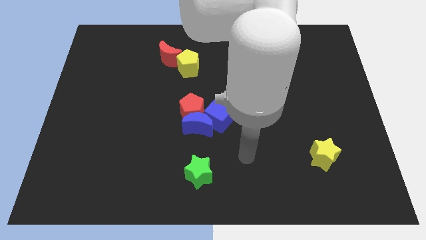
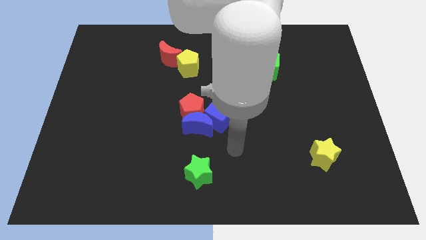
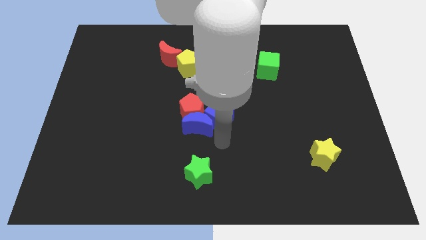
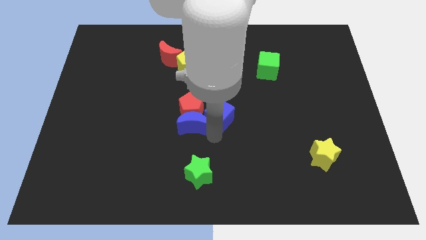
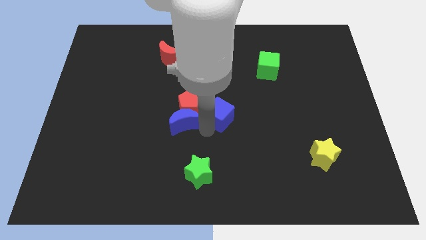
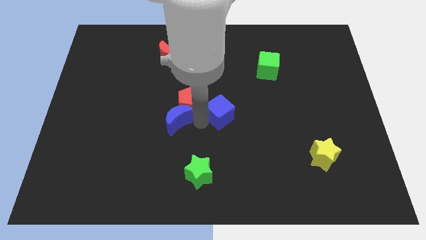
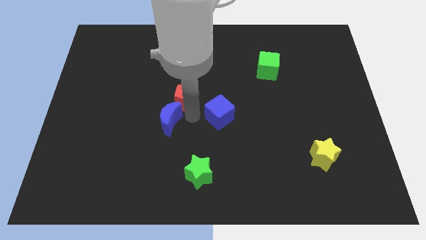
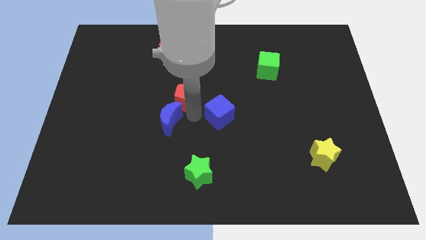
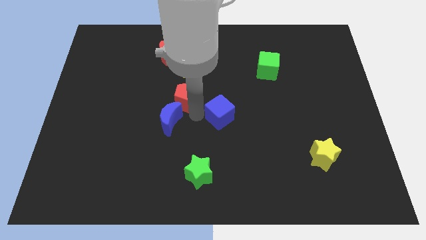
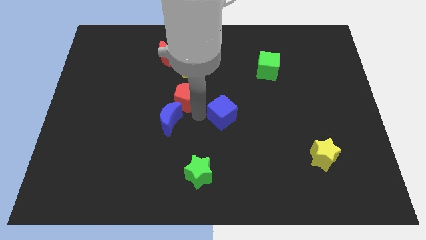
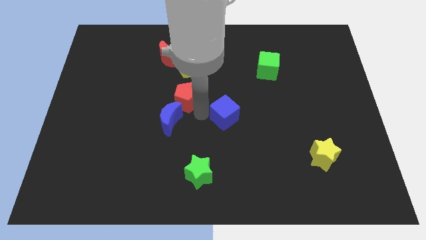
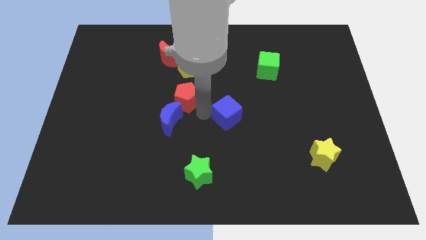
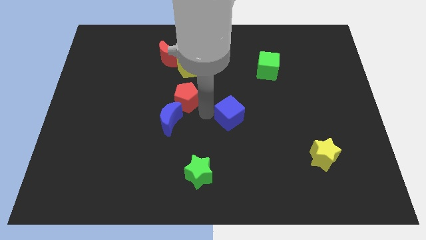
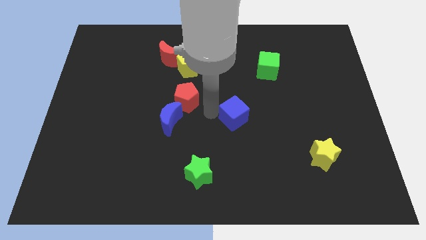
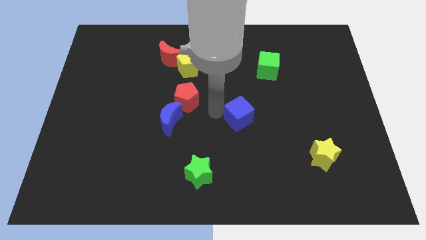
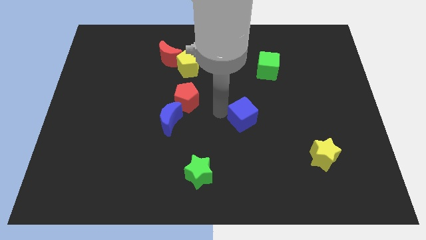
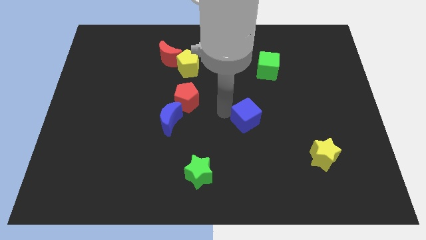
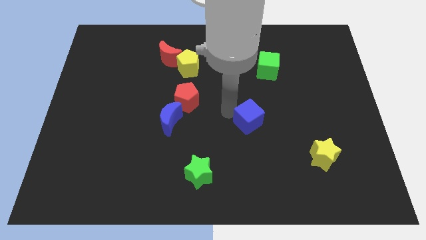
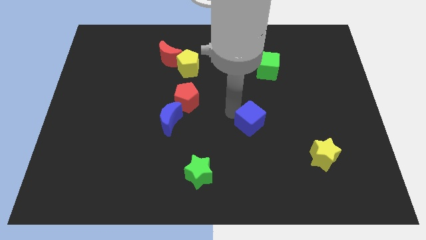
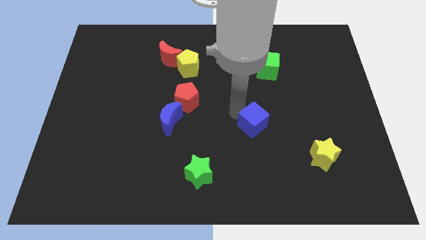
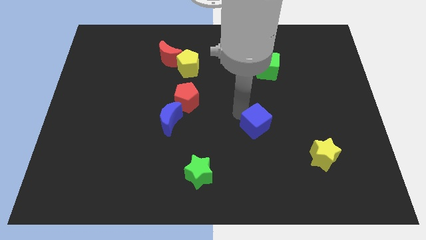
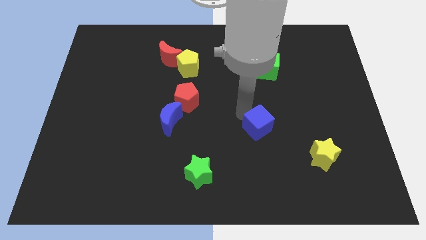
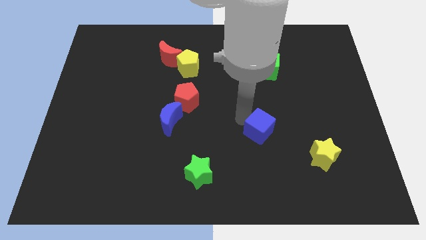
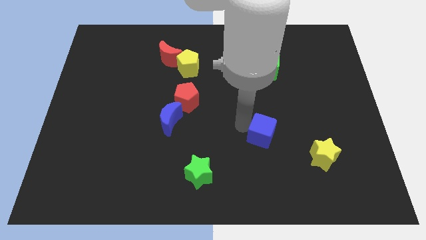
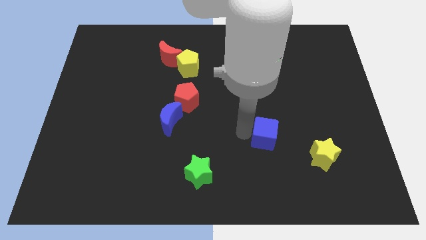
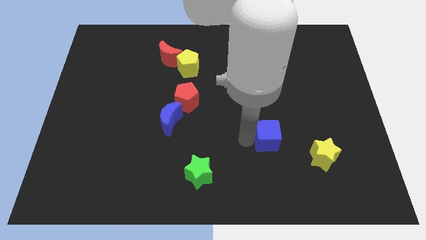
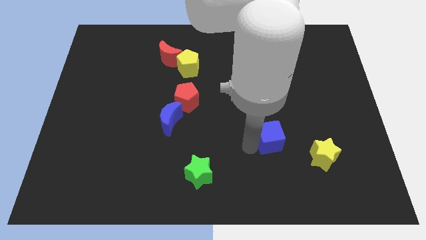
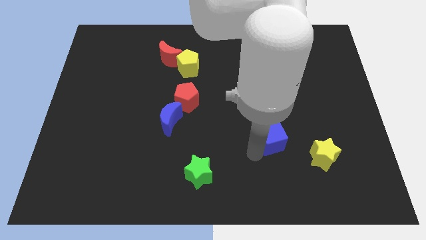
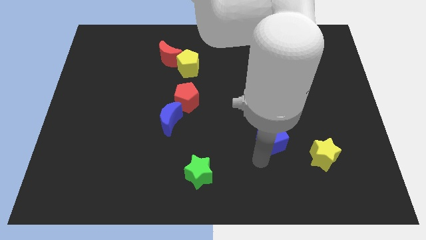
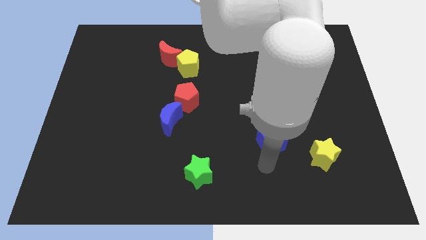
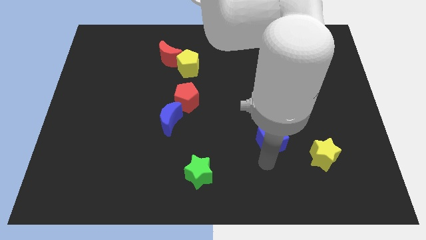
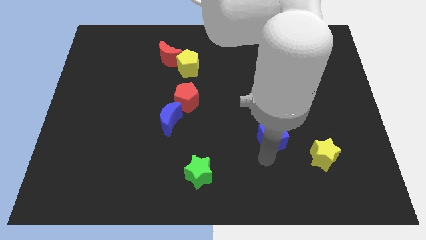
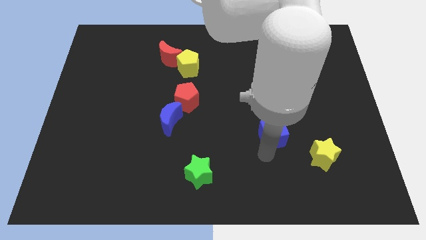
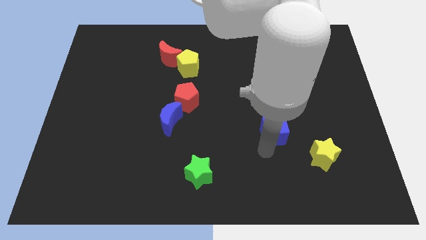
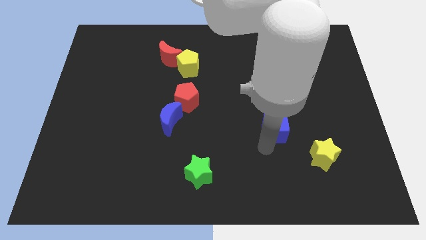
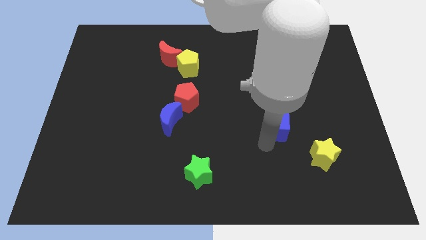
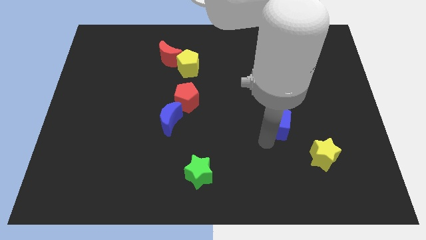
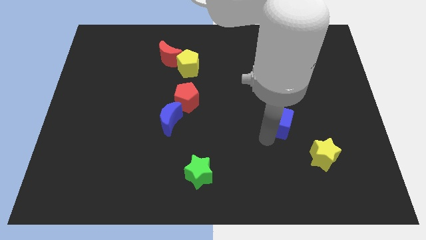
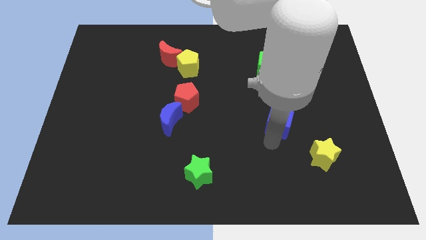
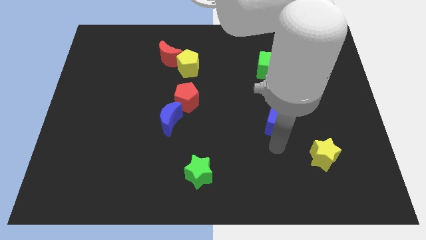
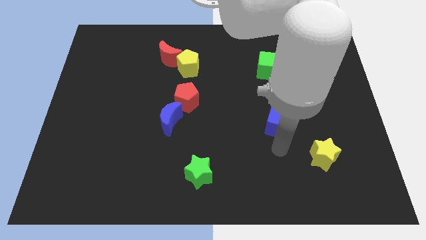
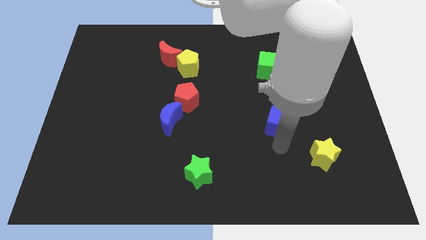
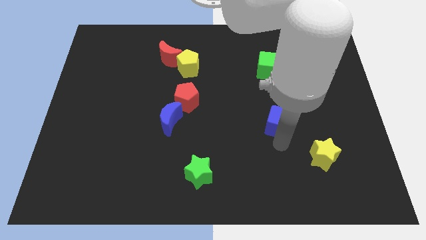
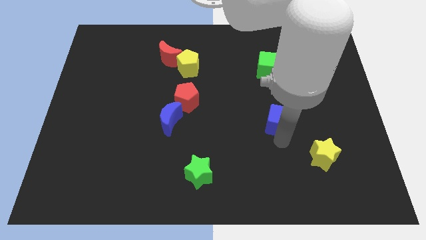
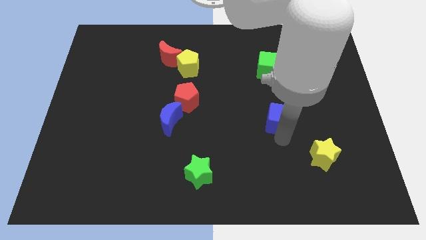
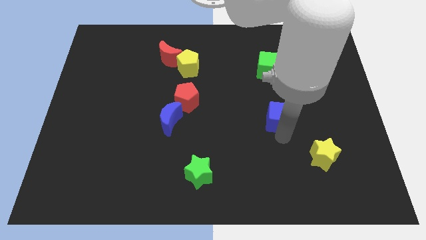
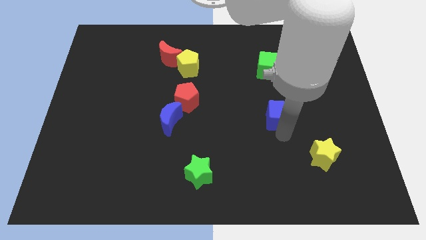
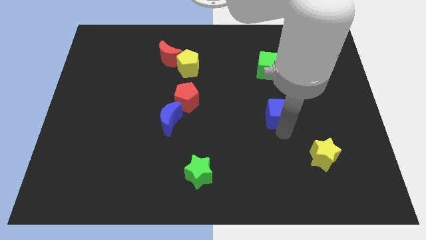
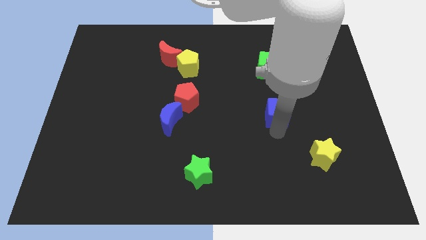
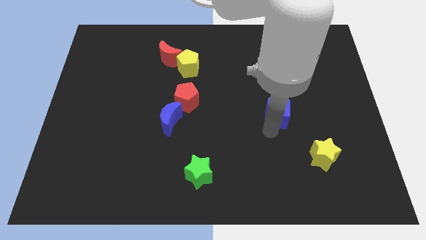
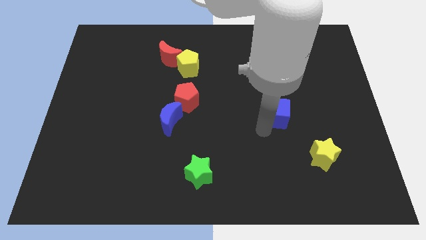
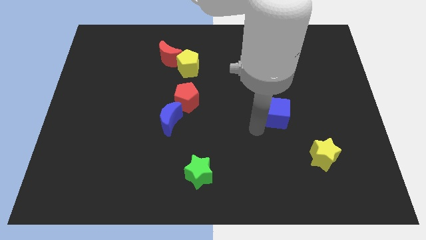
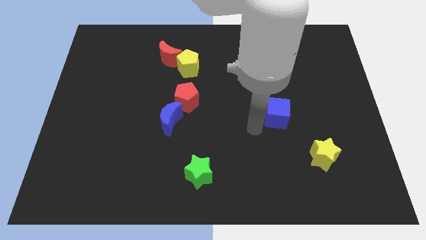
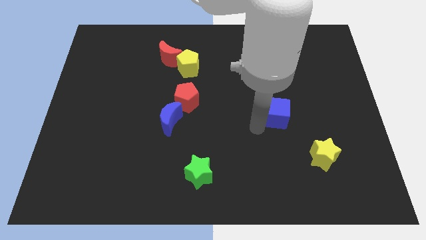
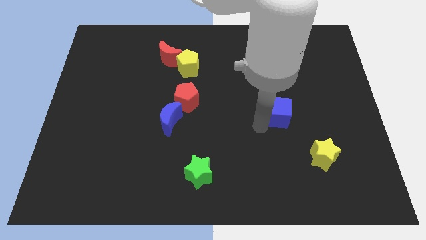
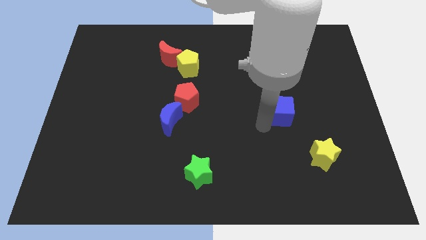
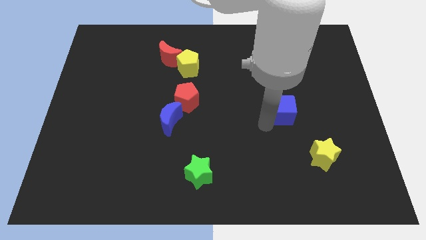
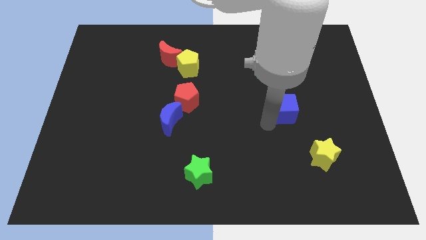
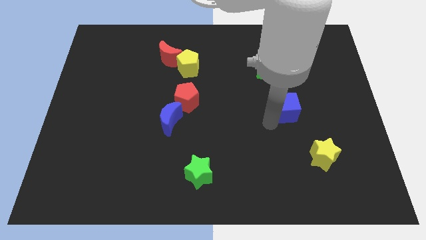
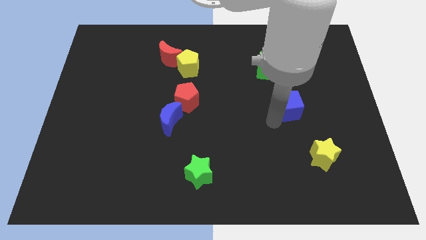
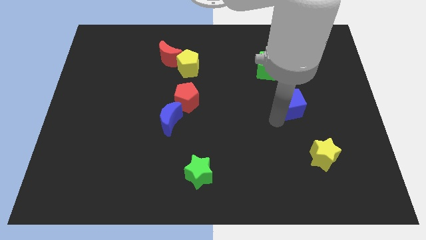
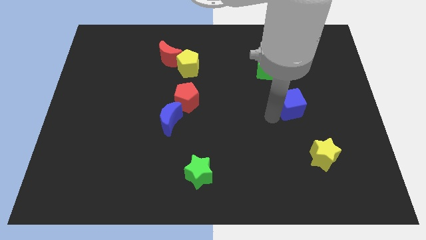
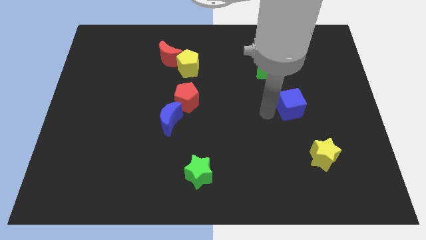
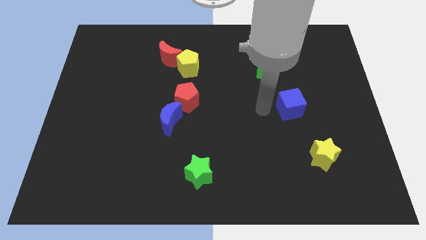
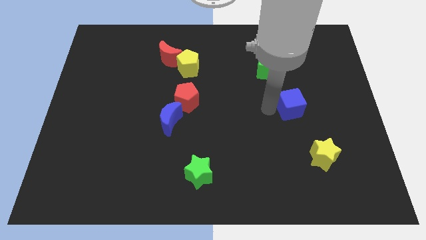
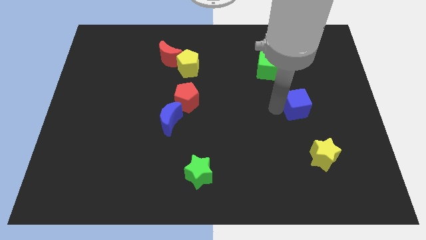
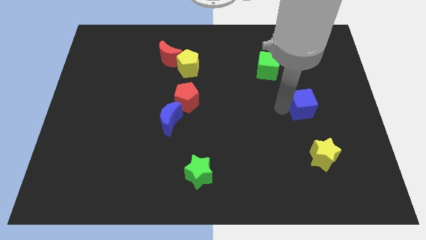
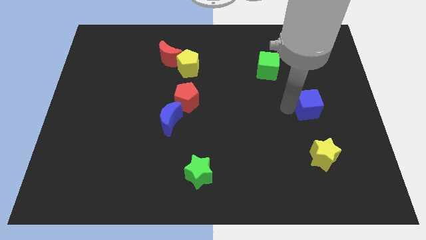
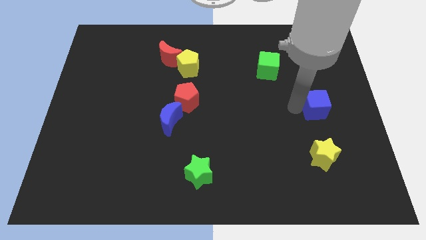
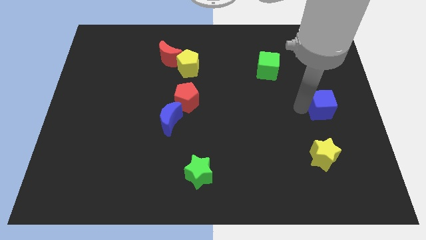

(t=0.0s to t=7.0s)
put the blue cube to the center right
